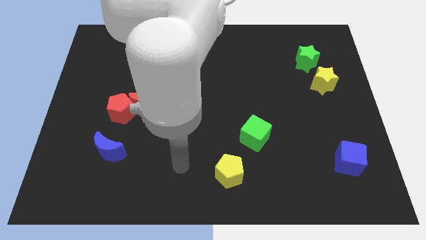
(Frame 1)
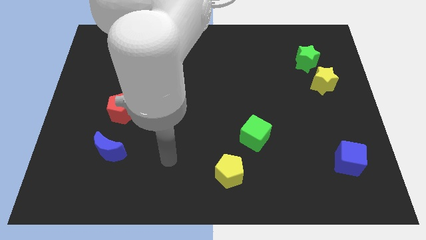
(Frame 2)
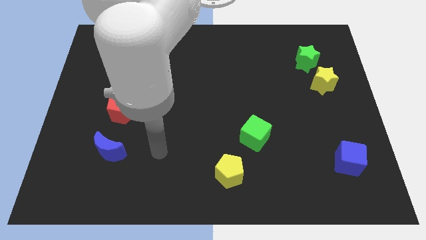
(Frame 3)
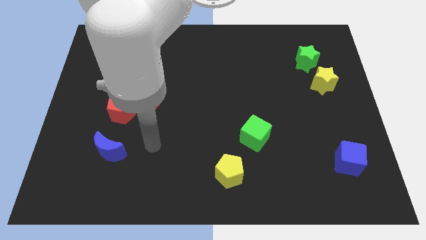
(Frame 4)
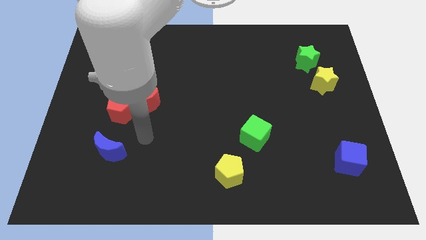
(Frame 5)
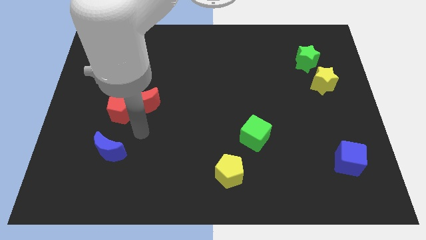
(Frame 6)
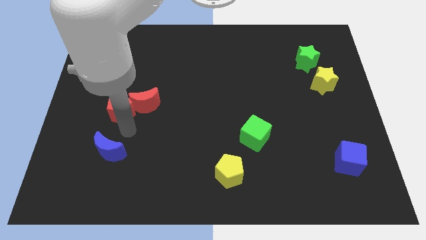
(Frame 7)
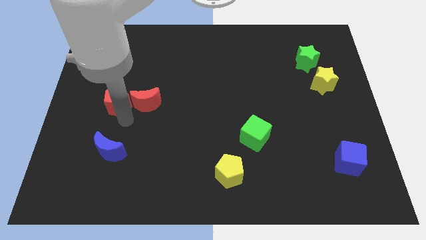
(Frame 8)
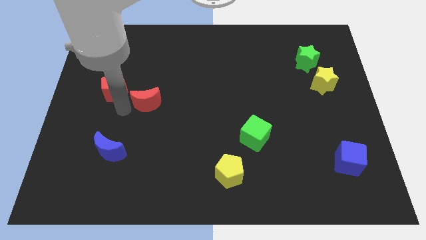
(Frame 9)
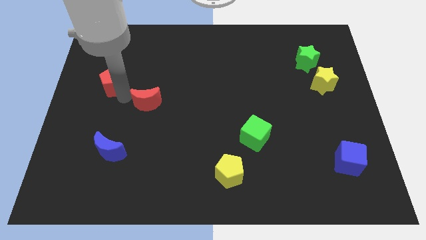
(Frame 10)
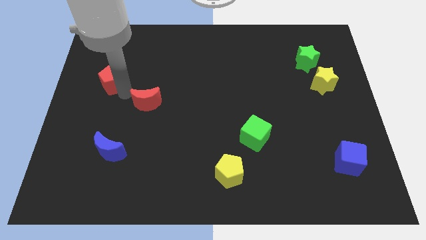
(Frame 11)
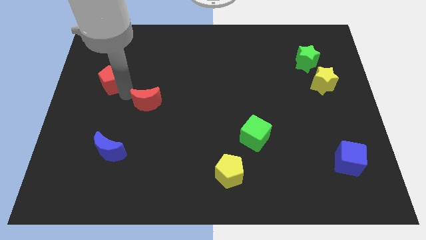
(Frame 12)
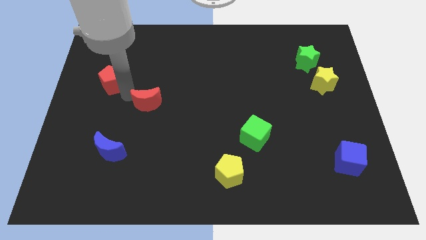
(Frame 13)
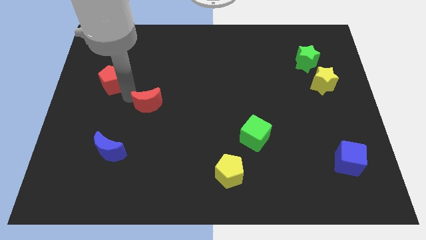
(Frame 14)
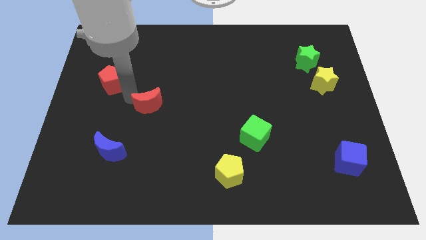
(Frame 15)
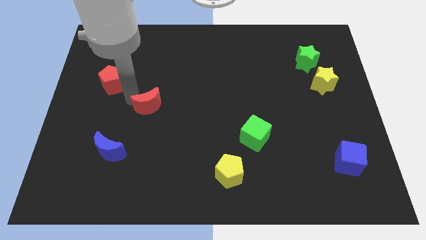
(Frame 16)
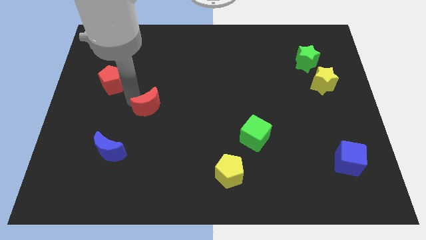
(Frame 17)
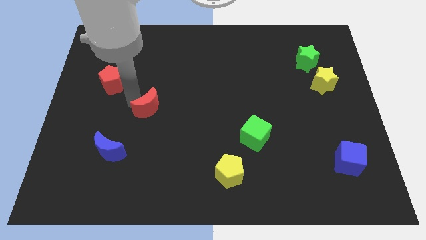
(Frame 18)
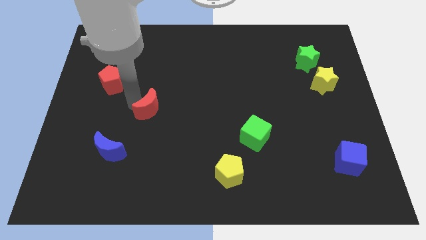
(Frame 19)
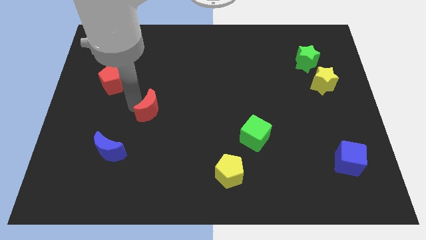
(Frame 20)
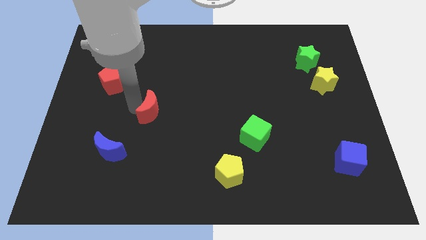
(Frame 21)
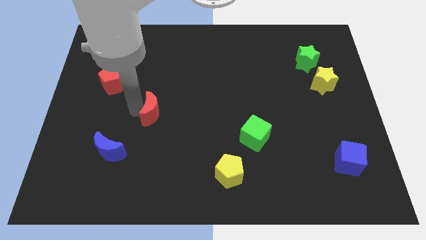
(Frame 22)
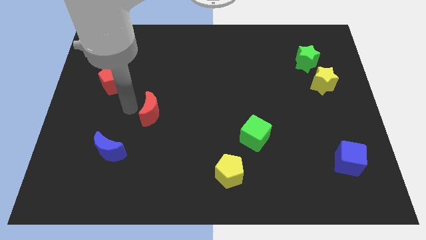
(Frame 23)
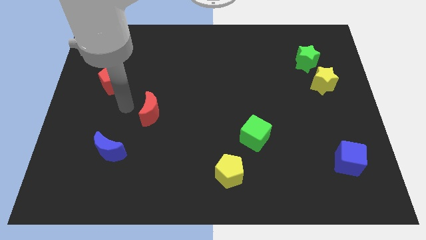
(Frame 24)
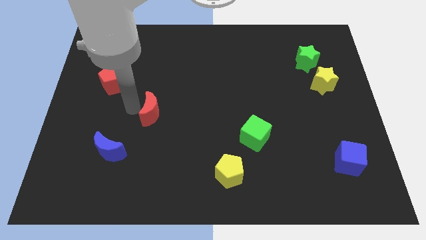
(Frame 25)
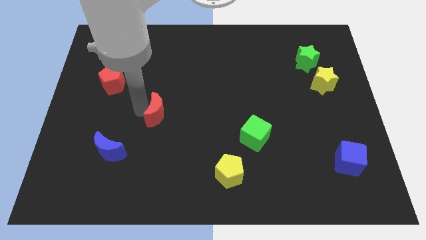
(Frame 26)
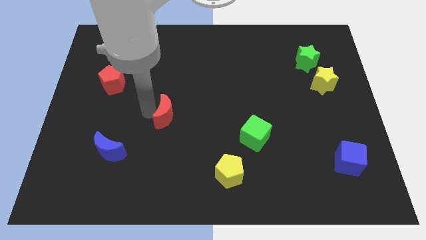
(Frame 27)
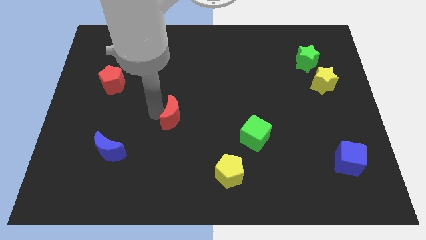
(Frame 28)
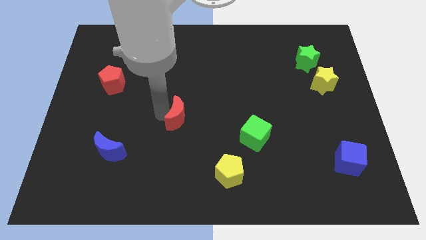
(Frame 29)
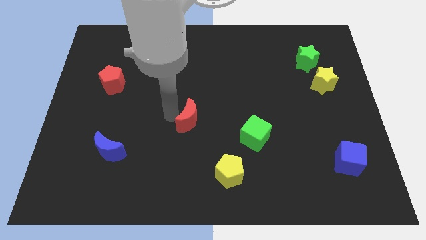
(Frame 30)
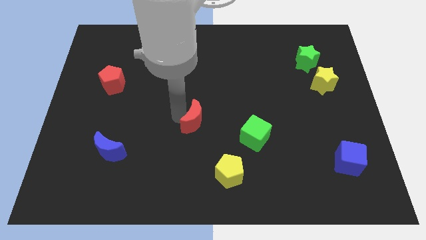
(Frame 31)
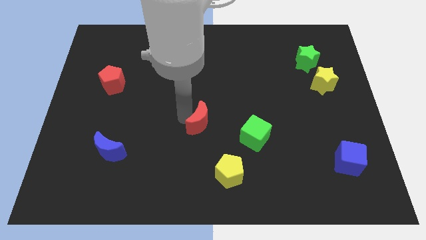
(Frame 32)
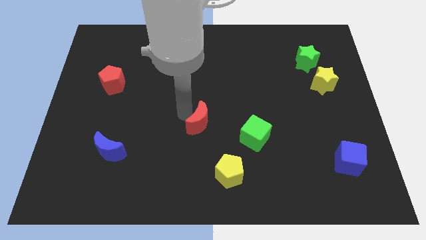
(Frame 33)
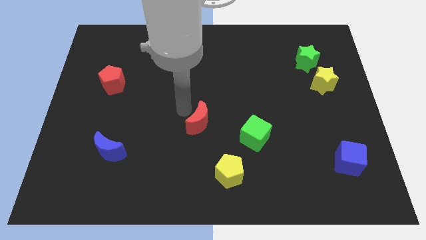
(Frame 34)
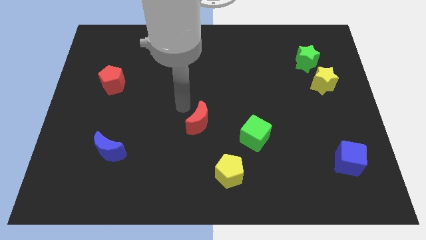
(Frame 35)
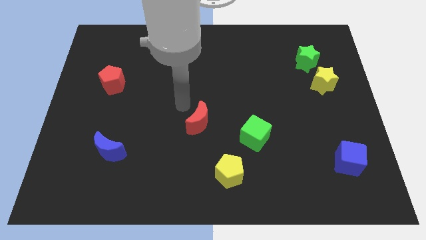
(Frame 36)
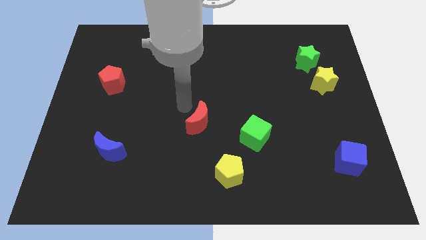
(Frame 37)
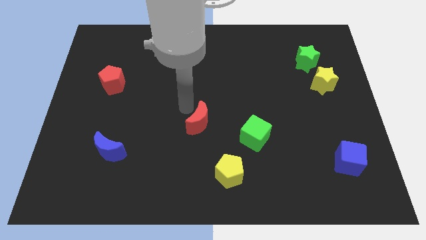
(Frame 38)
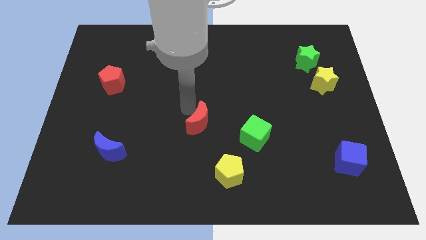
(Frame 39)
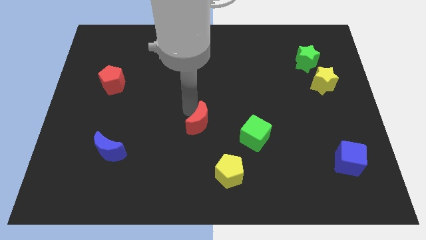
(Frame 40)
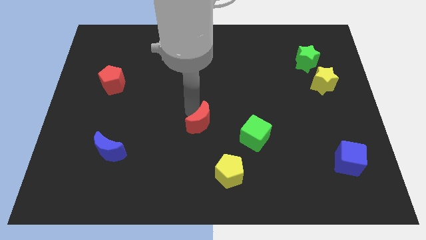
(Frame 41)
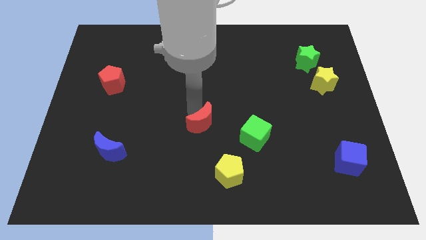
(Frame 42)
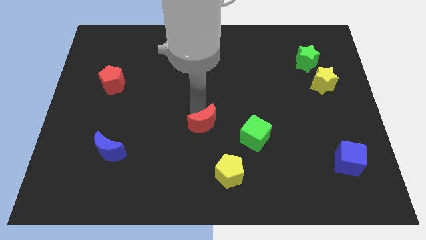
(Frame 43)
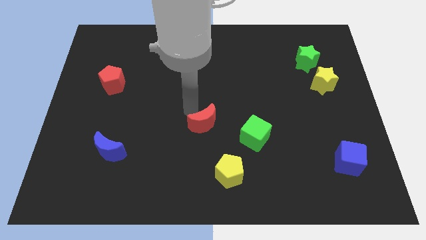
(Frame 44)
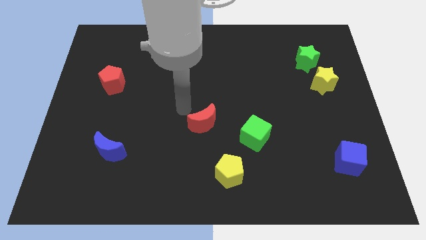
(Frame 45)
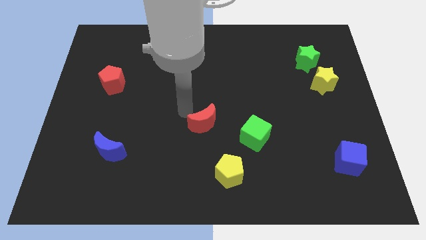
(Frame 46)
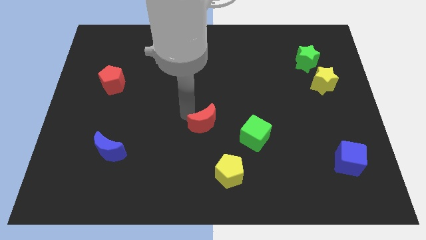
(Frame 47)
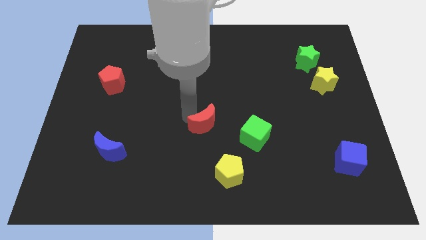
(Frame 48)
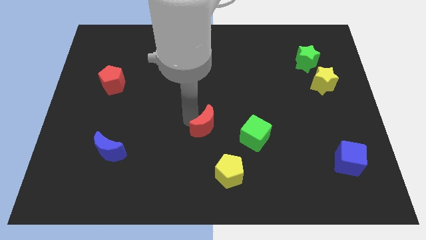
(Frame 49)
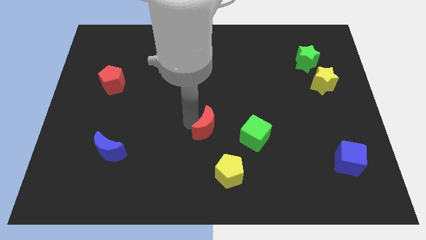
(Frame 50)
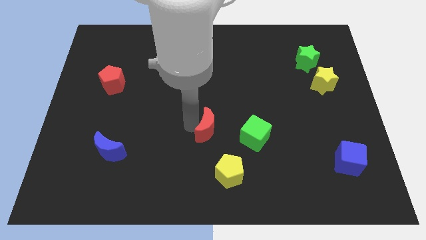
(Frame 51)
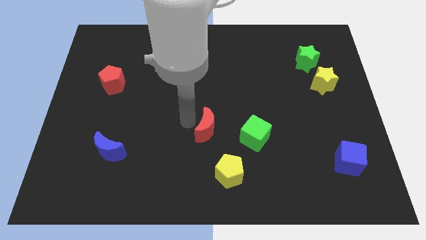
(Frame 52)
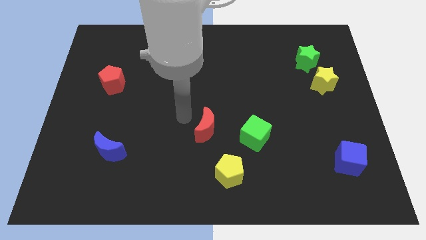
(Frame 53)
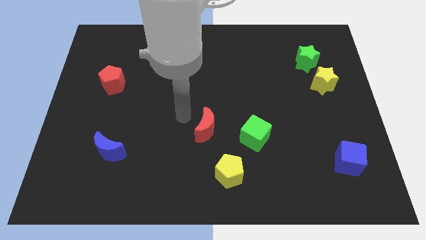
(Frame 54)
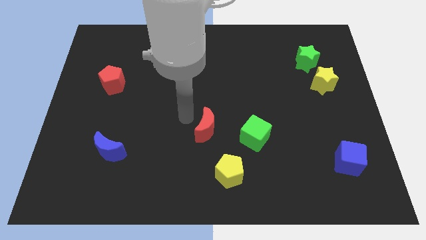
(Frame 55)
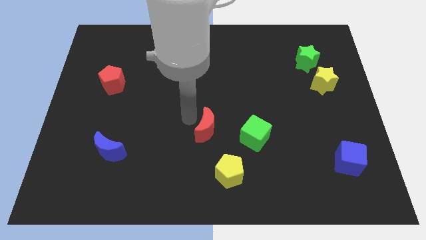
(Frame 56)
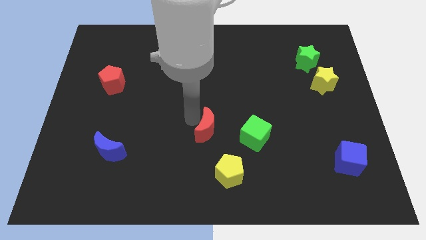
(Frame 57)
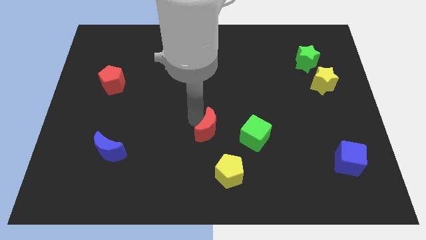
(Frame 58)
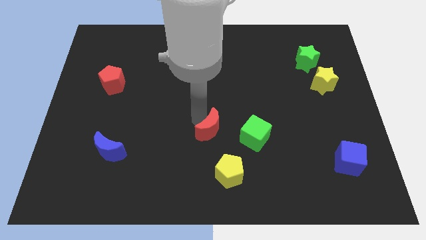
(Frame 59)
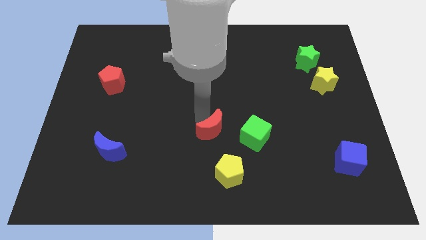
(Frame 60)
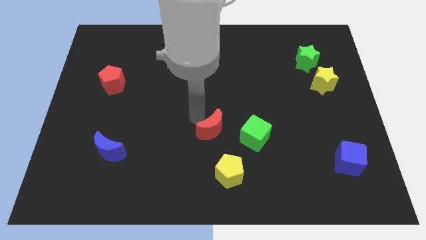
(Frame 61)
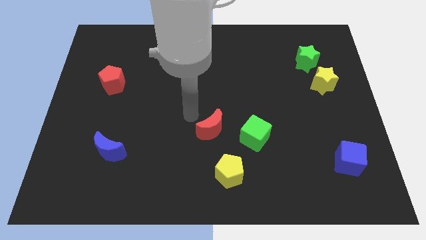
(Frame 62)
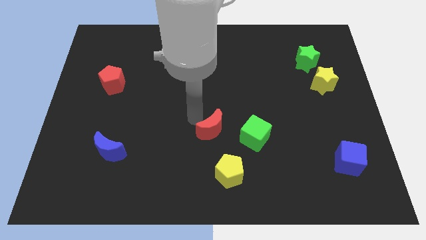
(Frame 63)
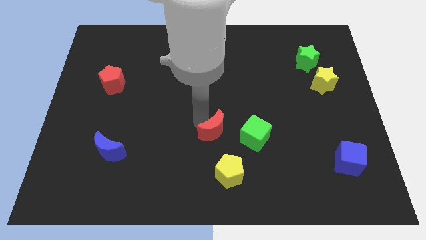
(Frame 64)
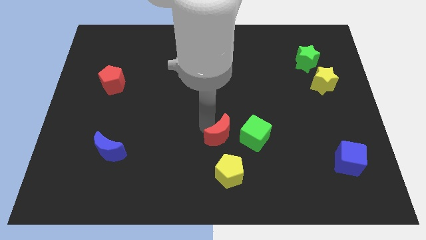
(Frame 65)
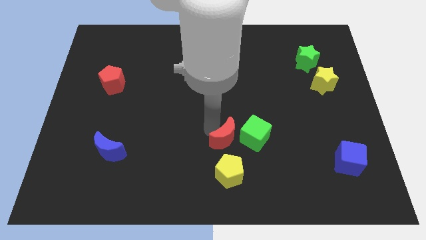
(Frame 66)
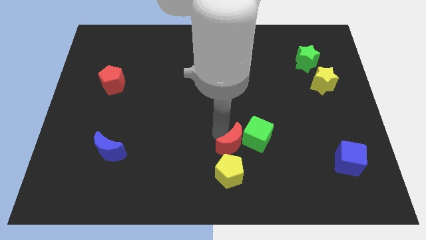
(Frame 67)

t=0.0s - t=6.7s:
slide the red moon diagonally up and to the right of the yellow pentagon
